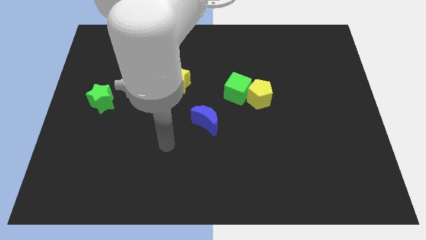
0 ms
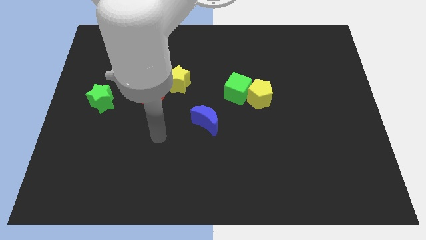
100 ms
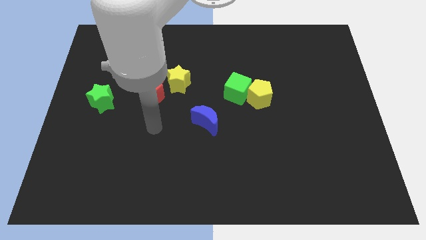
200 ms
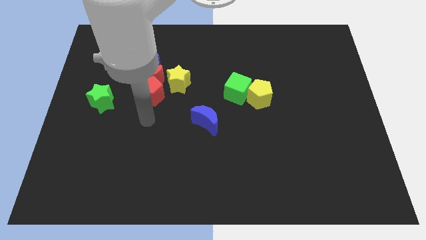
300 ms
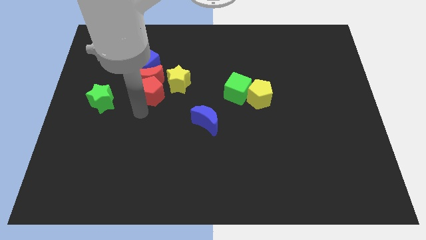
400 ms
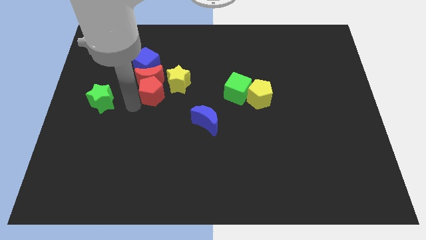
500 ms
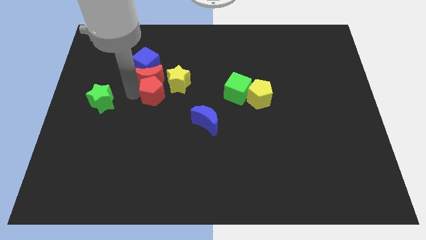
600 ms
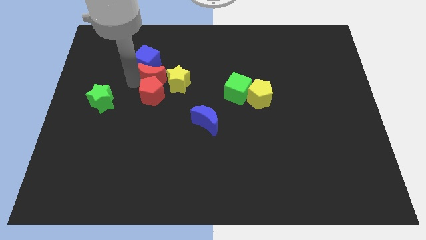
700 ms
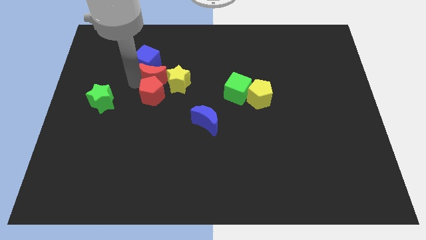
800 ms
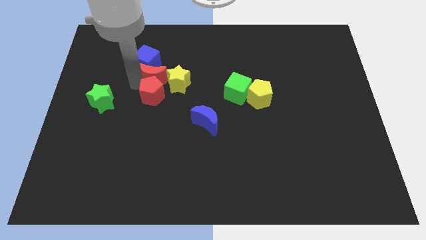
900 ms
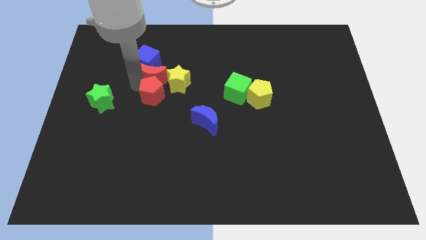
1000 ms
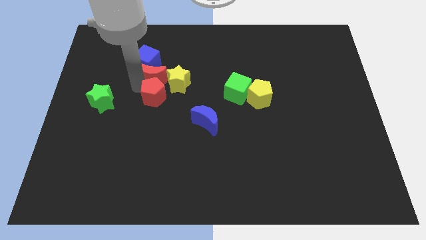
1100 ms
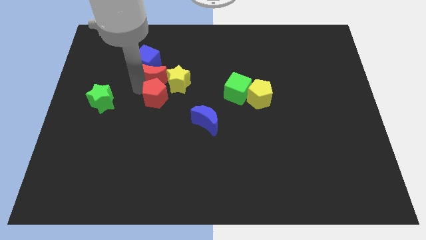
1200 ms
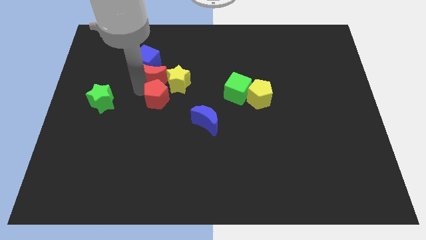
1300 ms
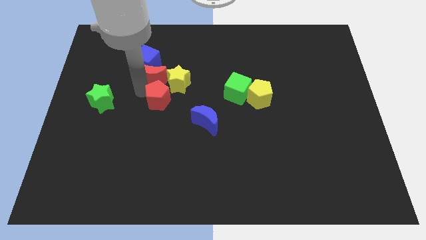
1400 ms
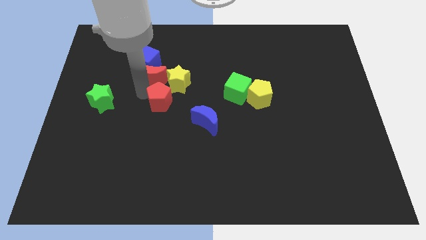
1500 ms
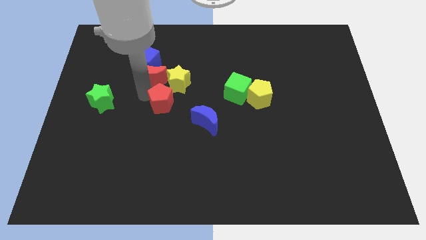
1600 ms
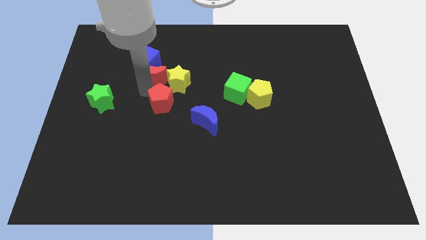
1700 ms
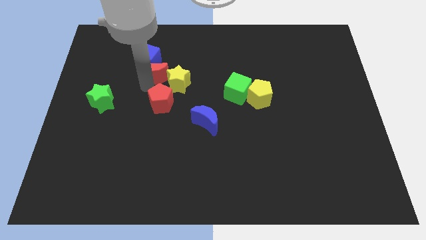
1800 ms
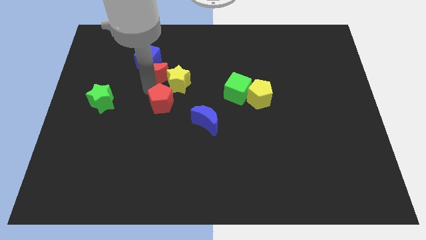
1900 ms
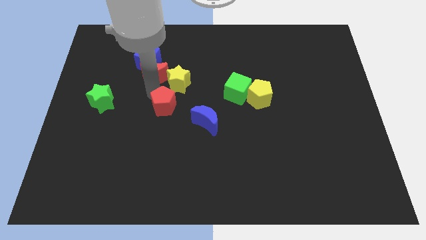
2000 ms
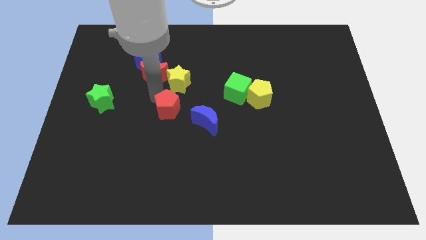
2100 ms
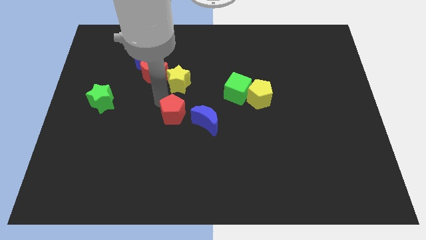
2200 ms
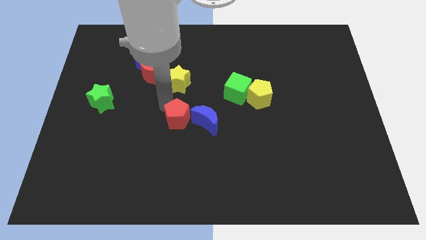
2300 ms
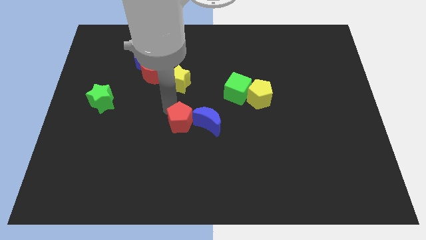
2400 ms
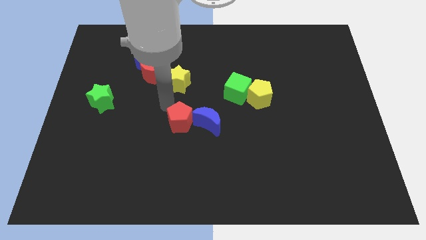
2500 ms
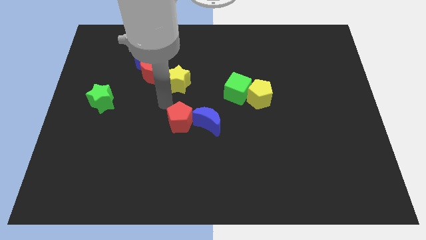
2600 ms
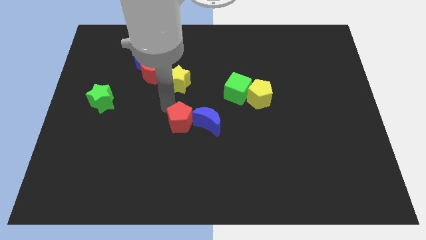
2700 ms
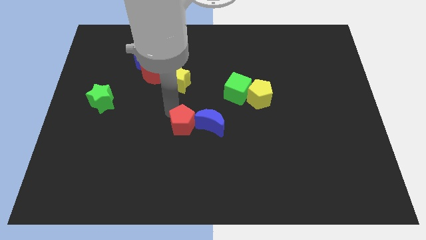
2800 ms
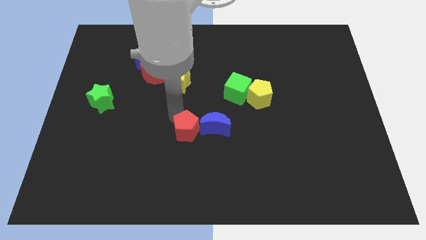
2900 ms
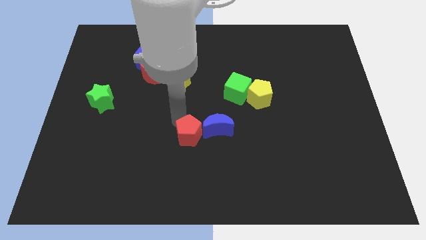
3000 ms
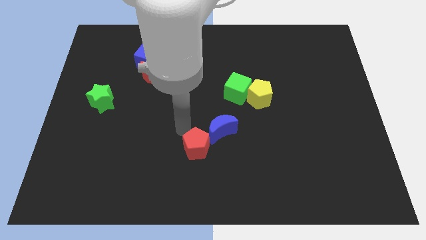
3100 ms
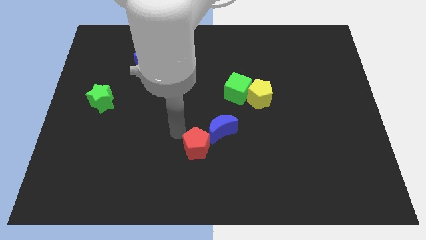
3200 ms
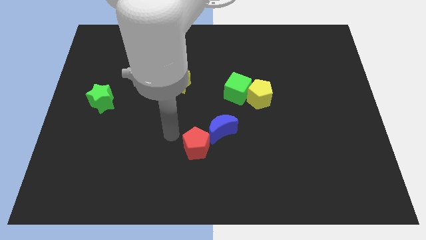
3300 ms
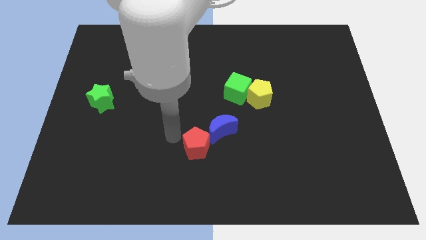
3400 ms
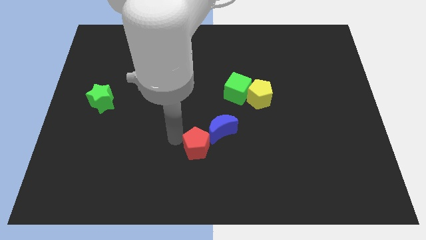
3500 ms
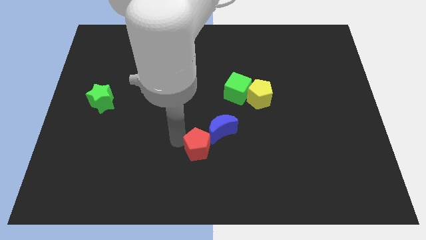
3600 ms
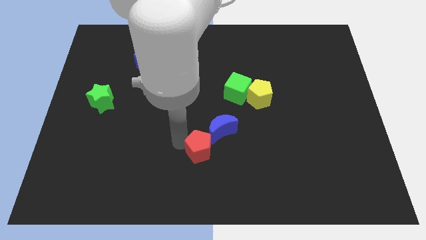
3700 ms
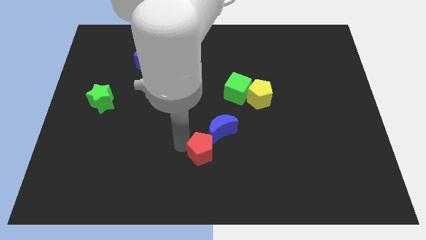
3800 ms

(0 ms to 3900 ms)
move the red pentagon diagonally downwards and to the right

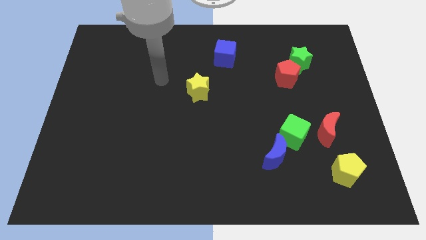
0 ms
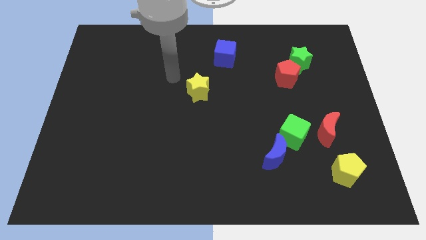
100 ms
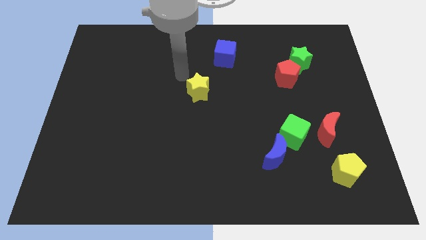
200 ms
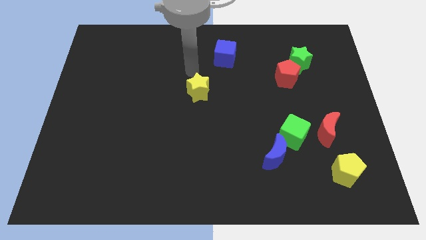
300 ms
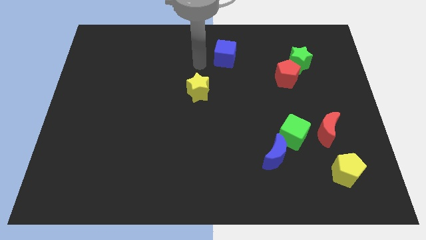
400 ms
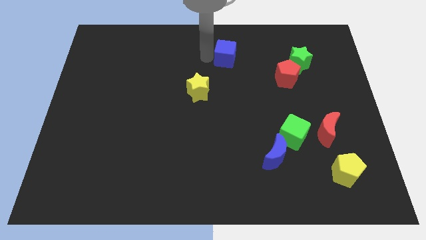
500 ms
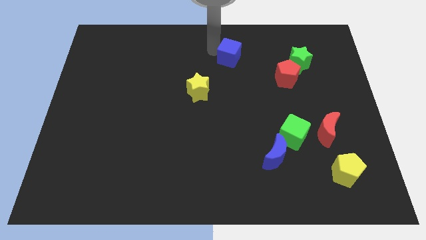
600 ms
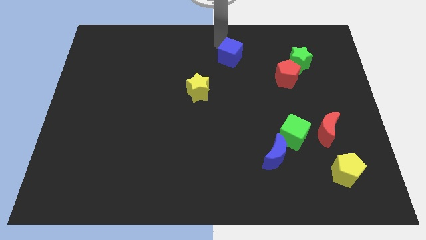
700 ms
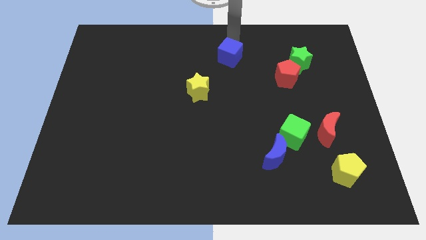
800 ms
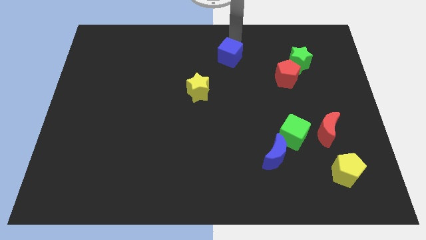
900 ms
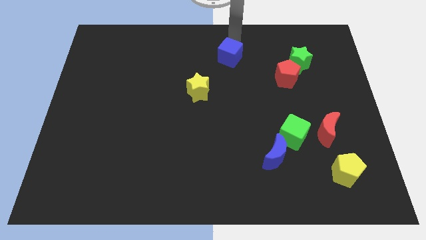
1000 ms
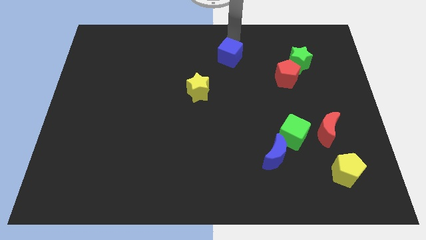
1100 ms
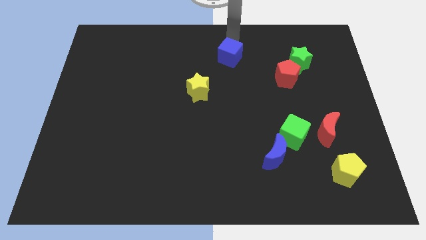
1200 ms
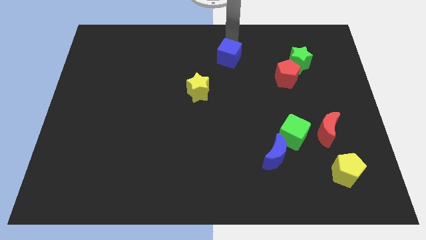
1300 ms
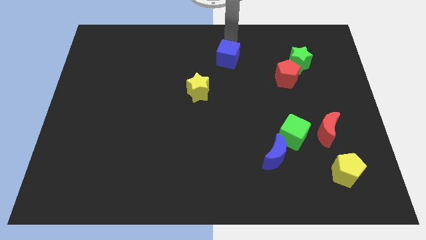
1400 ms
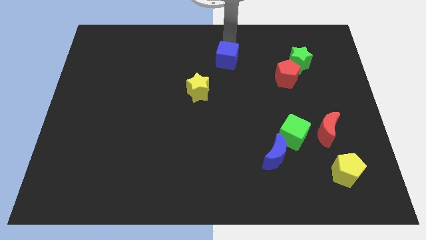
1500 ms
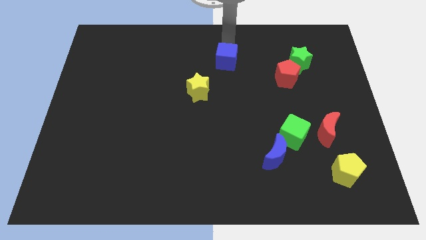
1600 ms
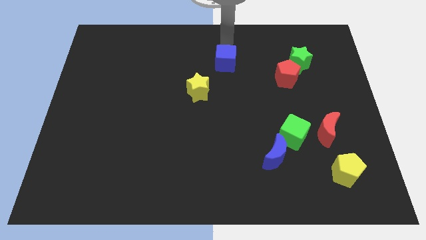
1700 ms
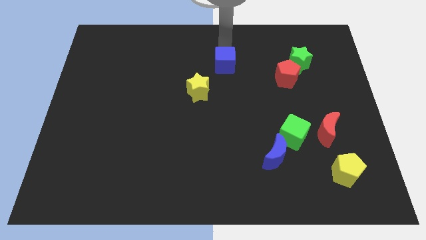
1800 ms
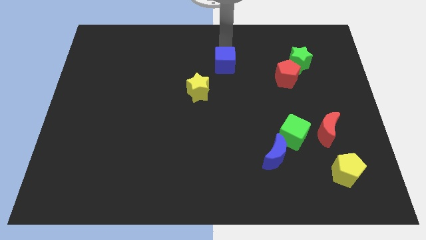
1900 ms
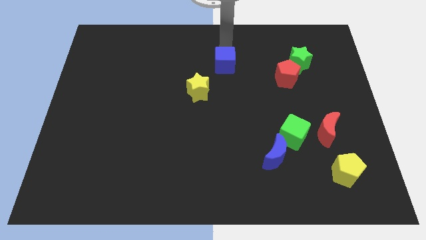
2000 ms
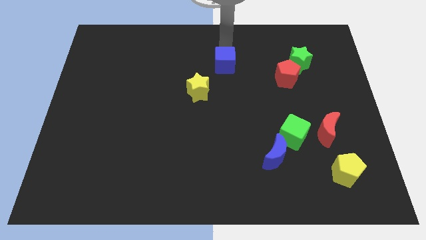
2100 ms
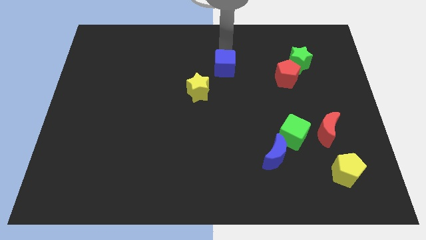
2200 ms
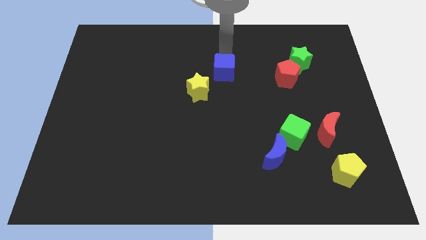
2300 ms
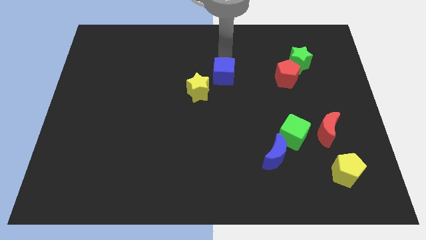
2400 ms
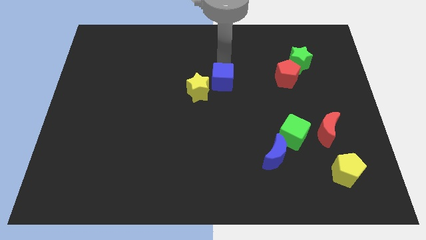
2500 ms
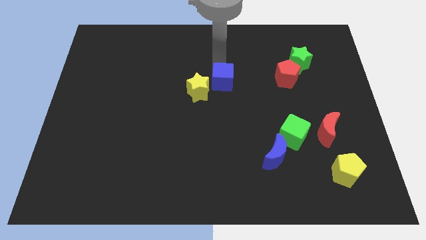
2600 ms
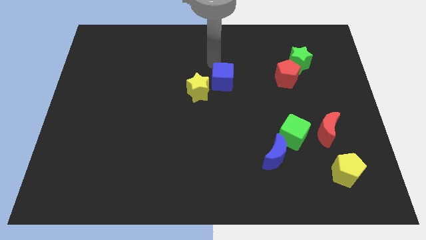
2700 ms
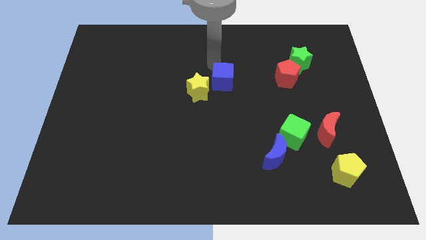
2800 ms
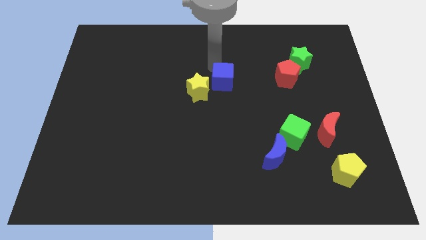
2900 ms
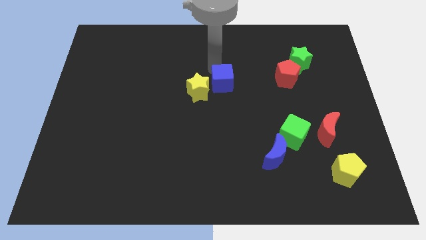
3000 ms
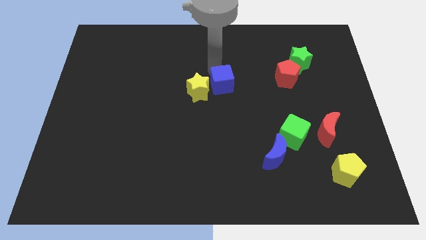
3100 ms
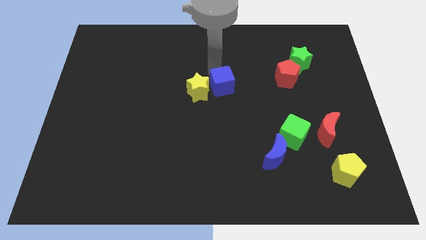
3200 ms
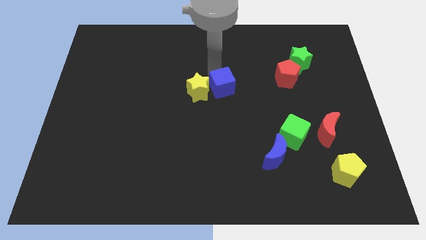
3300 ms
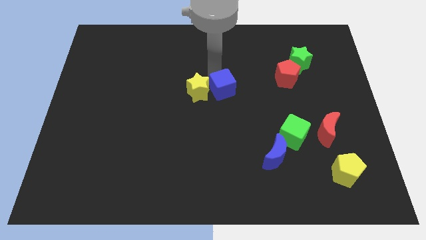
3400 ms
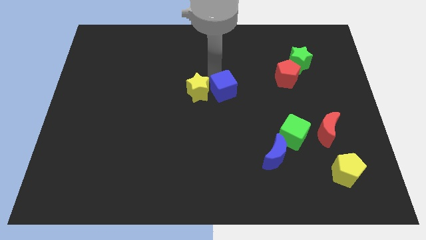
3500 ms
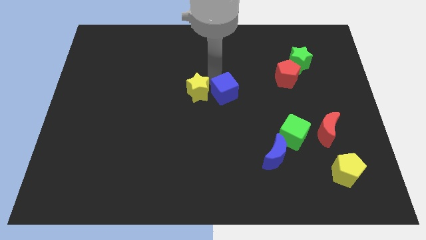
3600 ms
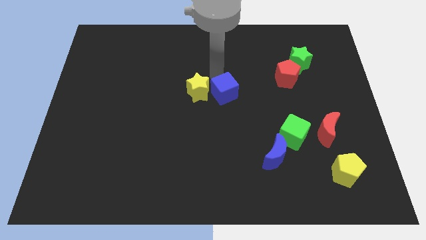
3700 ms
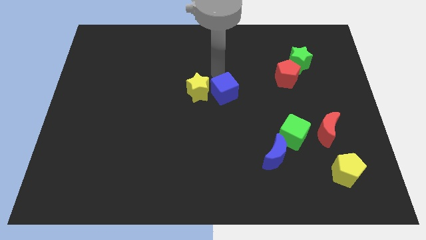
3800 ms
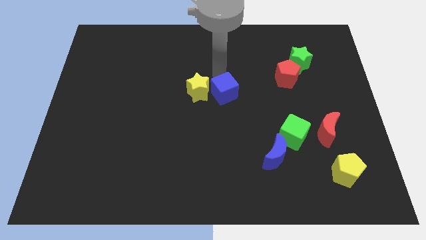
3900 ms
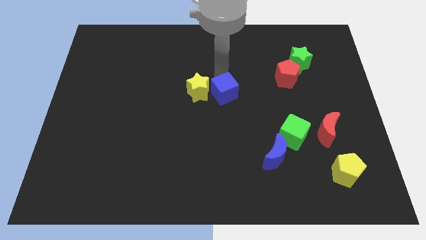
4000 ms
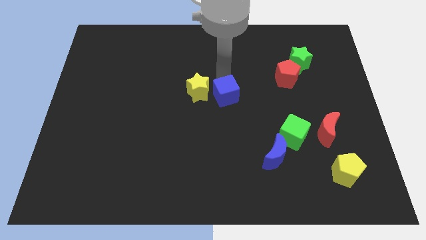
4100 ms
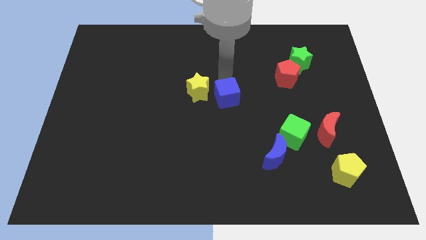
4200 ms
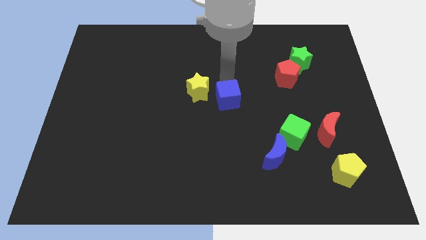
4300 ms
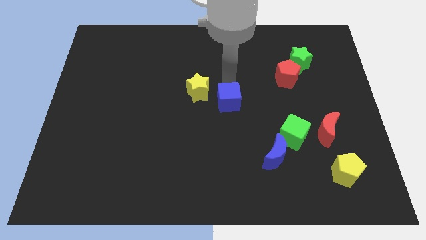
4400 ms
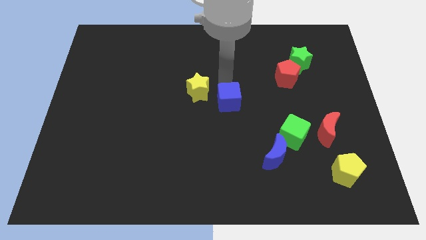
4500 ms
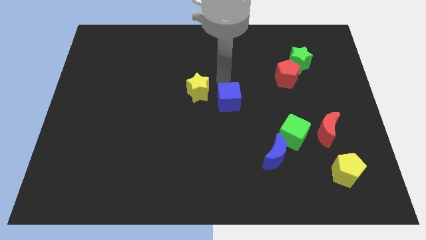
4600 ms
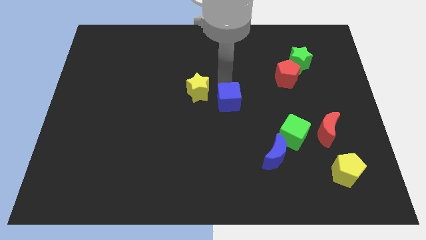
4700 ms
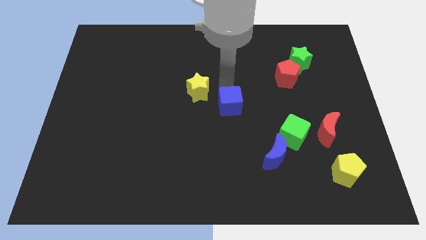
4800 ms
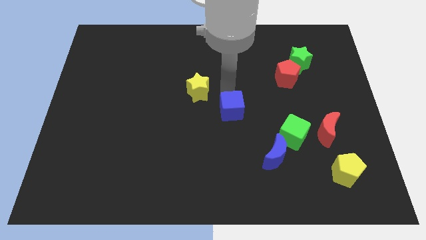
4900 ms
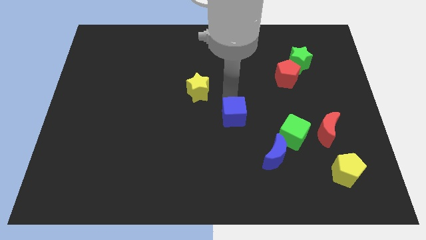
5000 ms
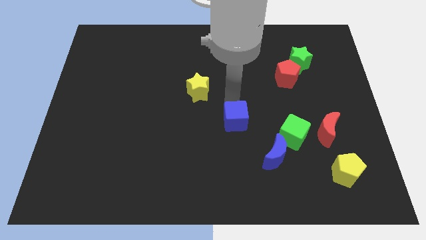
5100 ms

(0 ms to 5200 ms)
slide the blue cube downwards
